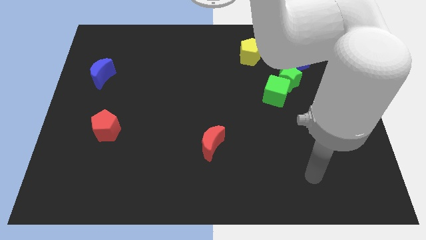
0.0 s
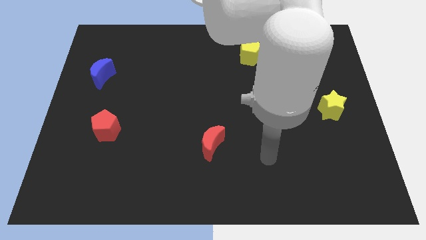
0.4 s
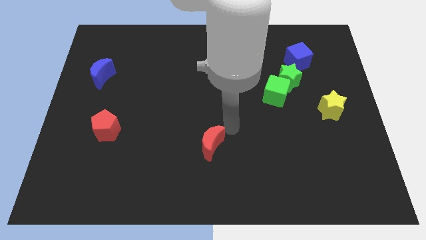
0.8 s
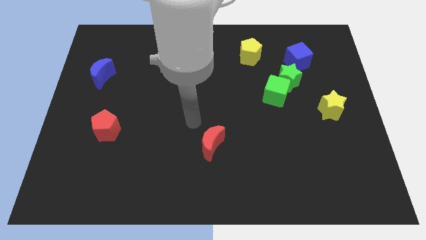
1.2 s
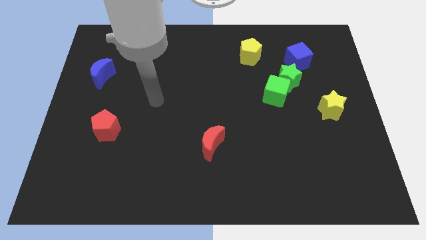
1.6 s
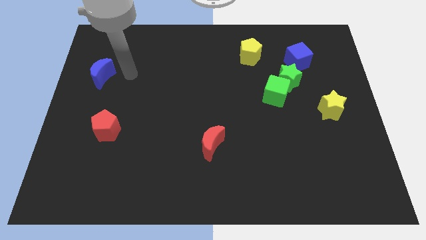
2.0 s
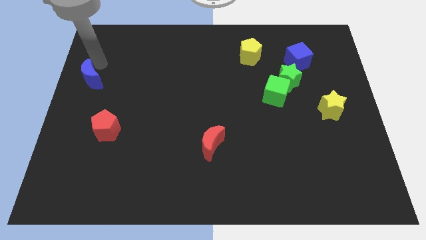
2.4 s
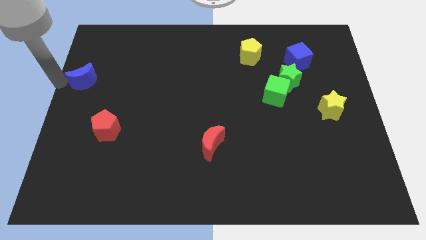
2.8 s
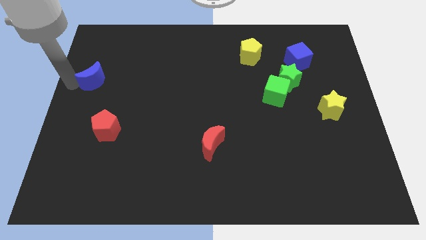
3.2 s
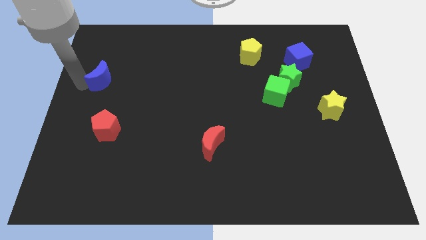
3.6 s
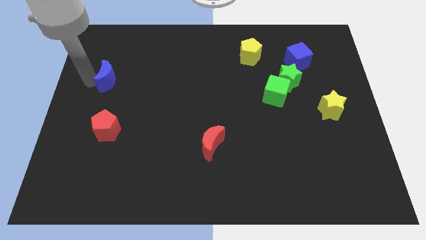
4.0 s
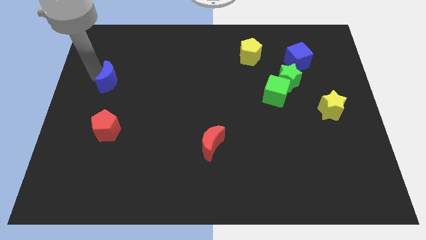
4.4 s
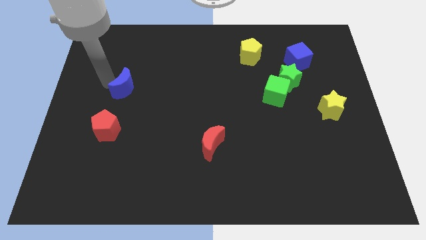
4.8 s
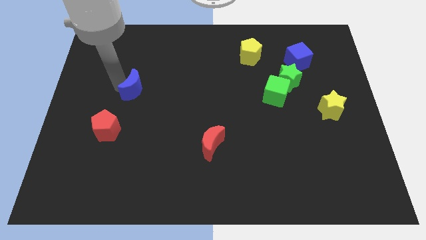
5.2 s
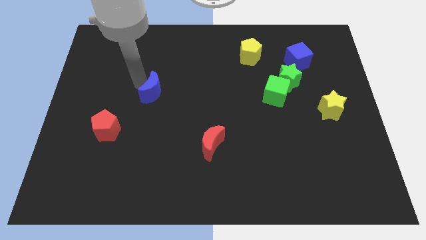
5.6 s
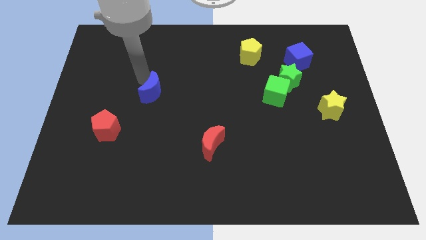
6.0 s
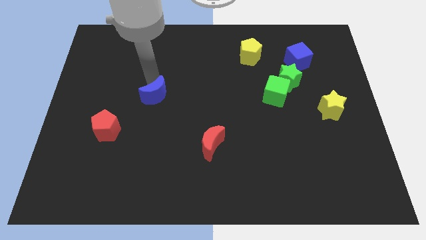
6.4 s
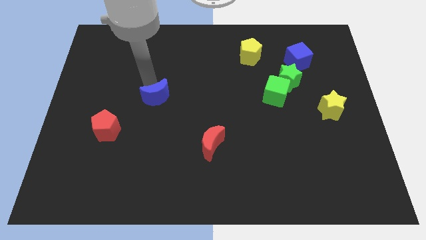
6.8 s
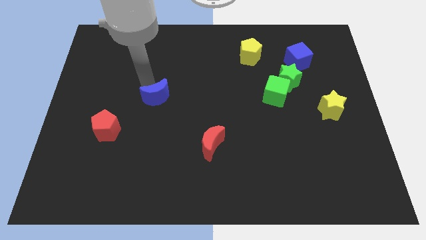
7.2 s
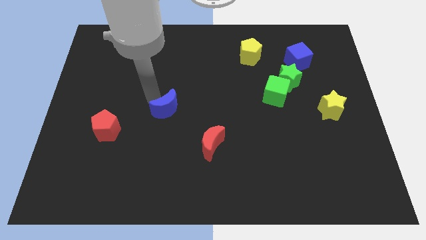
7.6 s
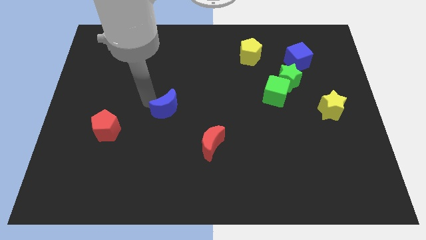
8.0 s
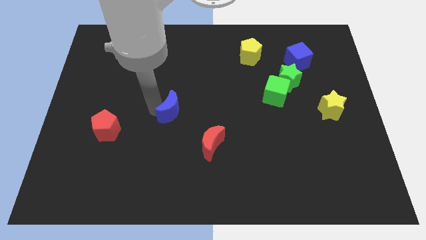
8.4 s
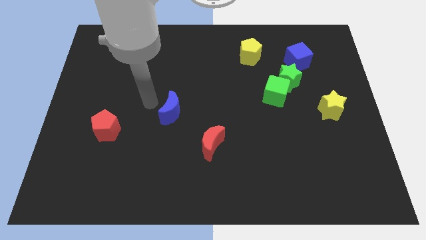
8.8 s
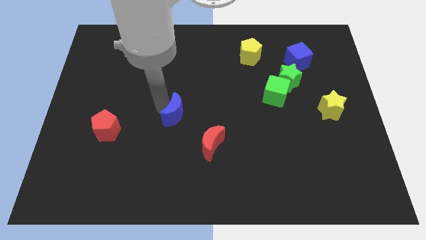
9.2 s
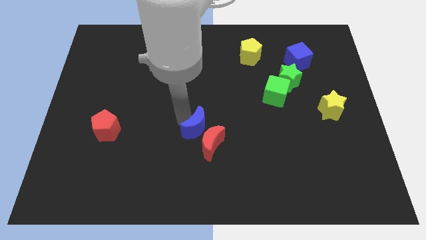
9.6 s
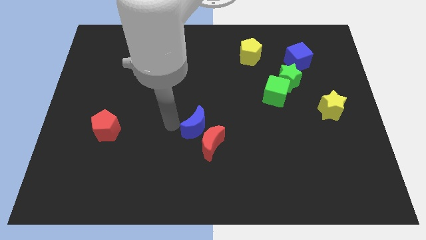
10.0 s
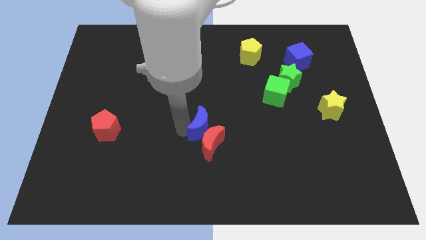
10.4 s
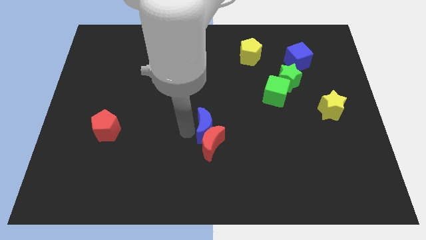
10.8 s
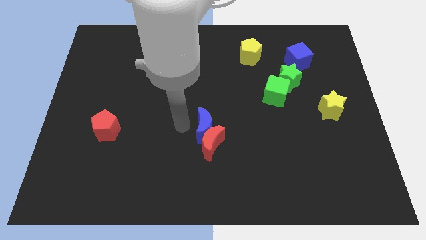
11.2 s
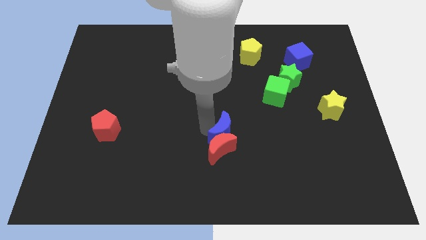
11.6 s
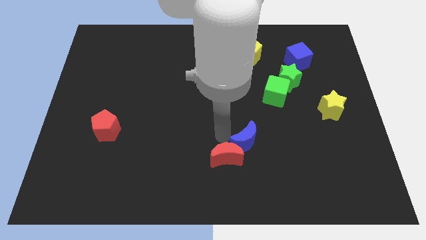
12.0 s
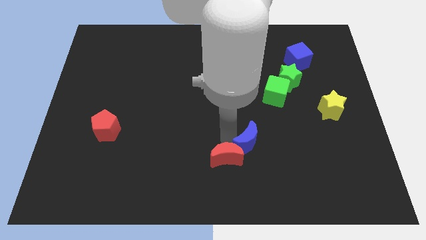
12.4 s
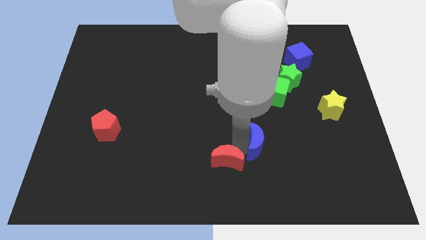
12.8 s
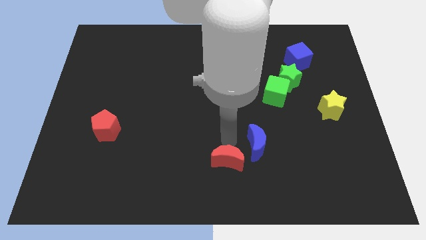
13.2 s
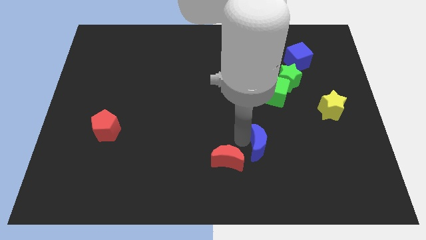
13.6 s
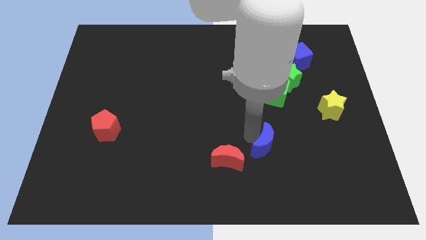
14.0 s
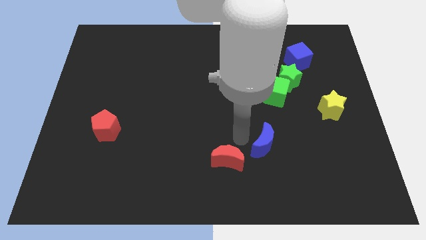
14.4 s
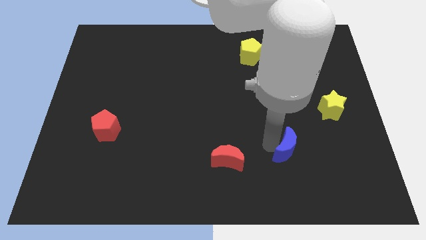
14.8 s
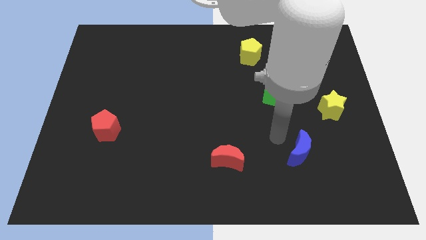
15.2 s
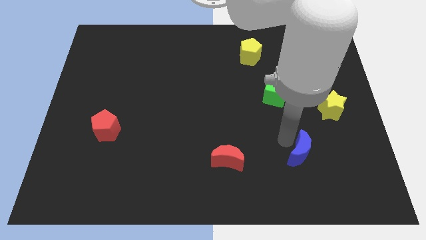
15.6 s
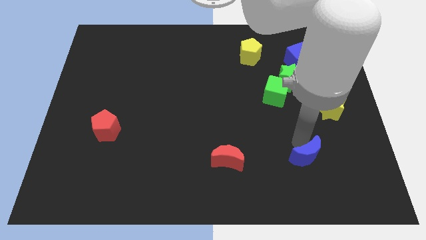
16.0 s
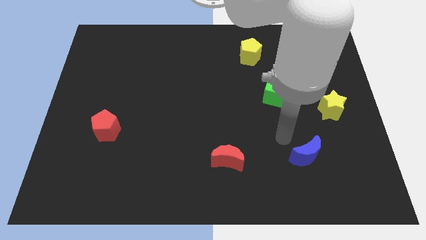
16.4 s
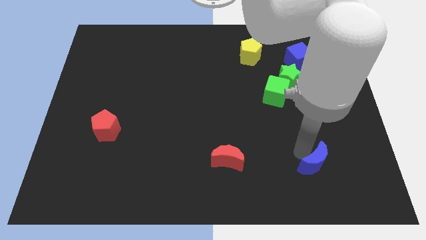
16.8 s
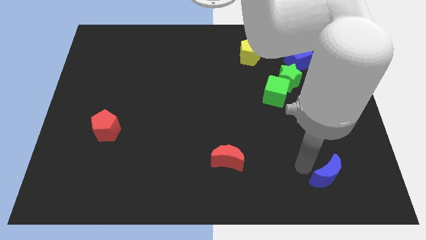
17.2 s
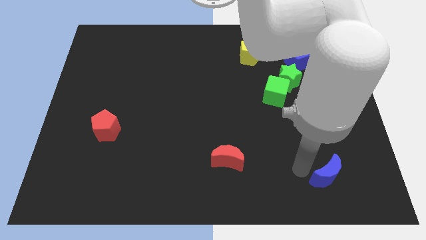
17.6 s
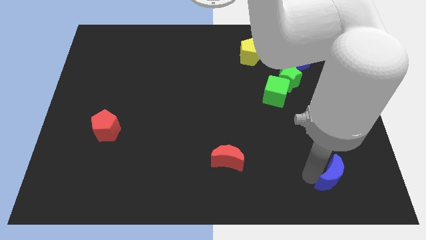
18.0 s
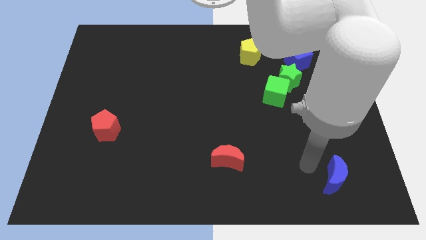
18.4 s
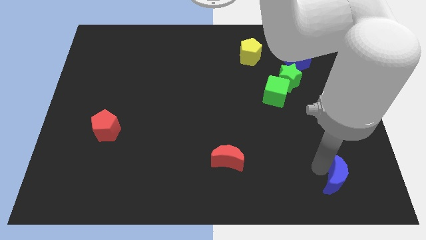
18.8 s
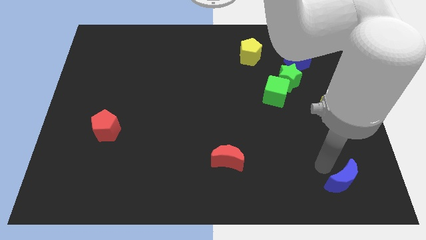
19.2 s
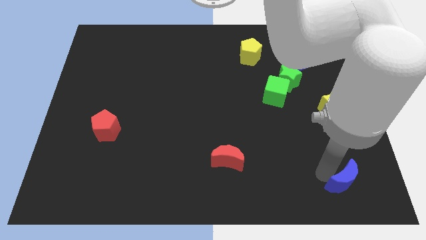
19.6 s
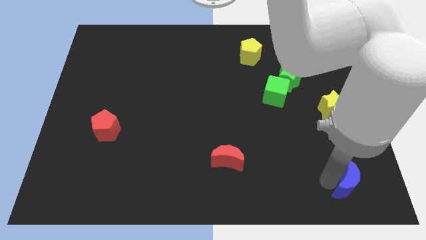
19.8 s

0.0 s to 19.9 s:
move the blue moon to the bottom right

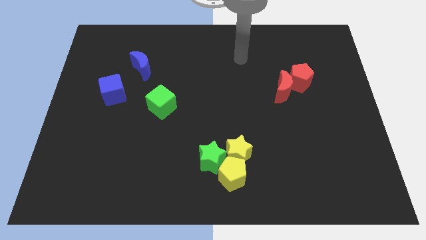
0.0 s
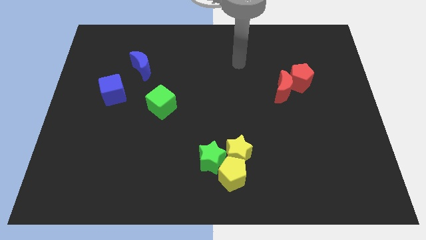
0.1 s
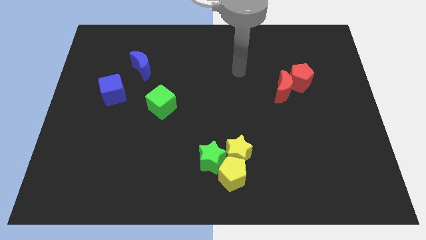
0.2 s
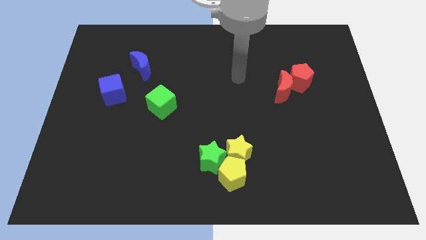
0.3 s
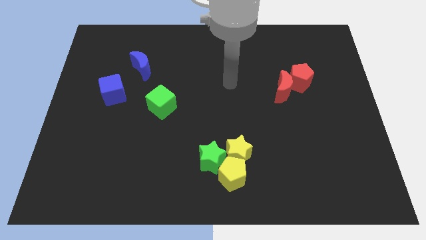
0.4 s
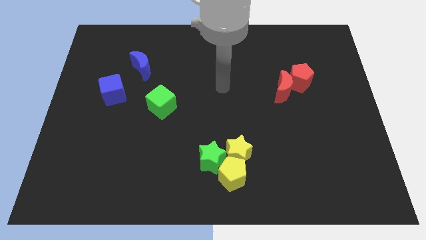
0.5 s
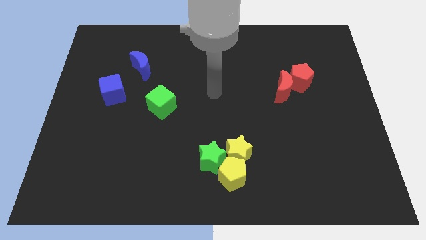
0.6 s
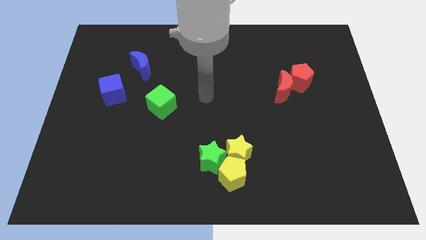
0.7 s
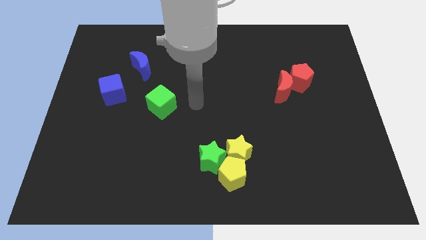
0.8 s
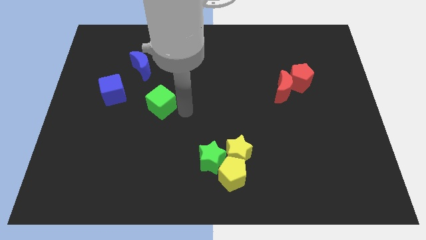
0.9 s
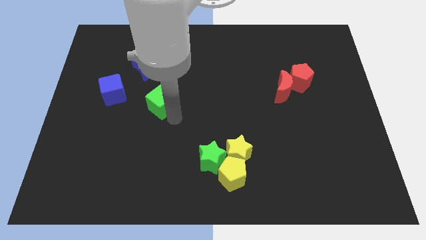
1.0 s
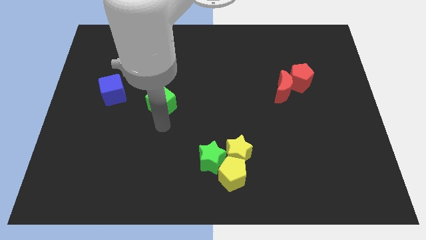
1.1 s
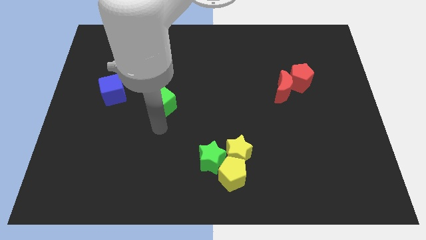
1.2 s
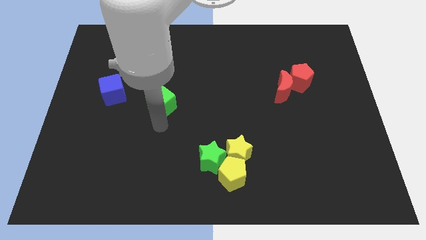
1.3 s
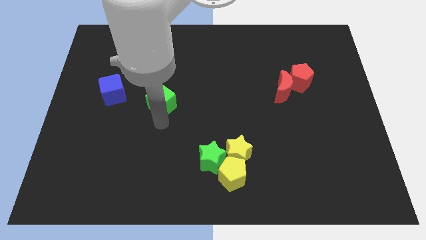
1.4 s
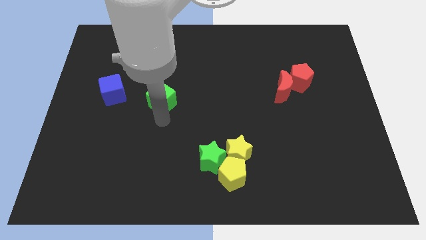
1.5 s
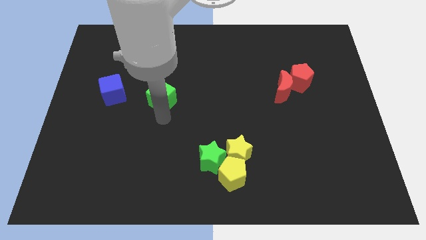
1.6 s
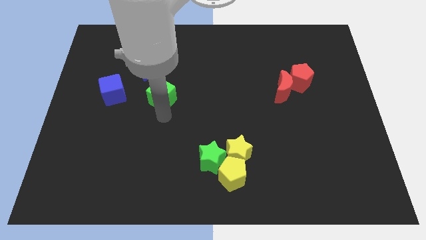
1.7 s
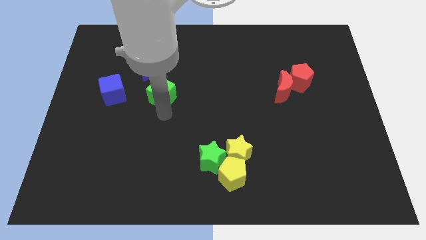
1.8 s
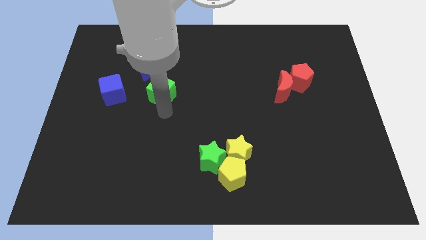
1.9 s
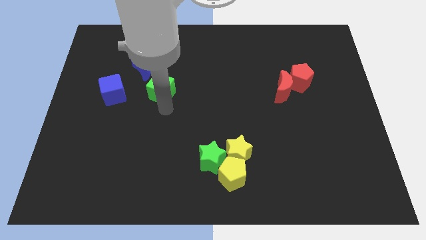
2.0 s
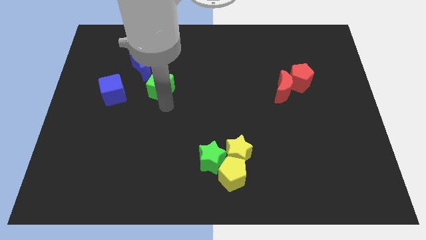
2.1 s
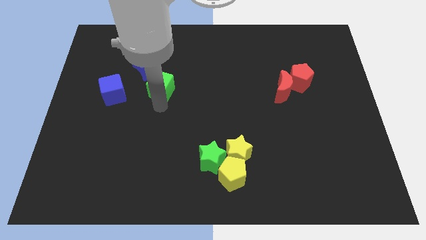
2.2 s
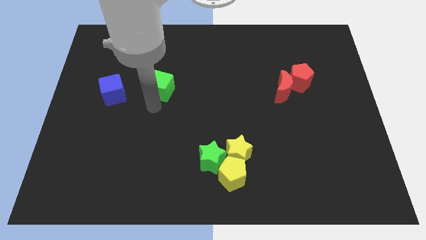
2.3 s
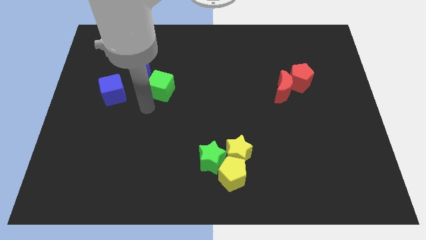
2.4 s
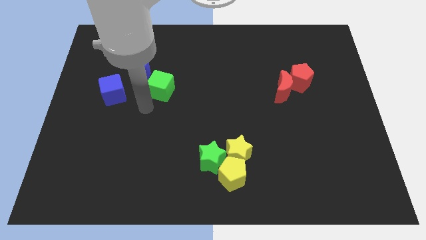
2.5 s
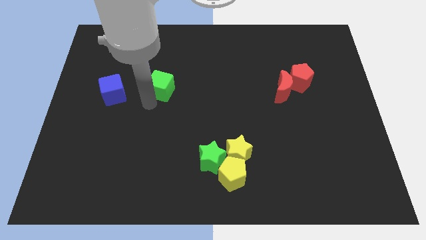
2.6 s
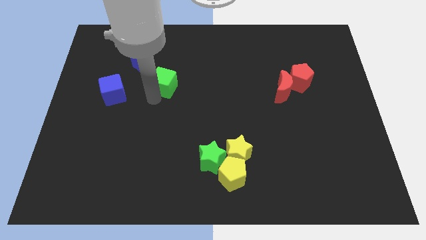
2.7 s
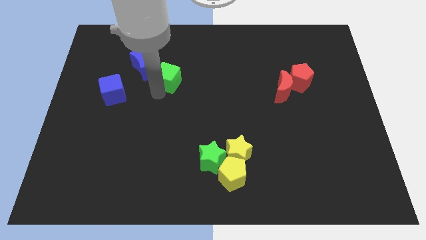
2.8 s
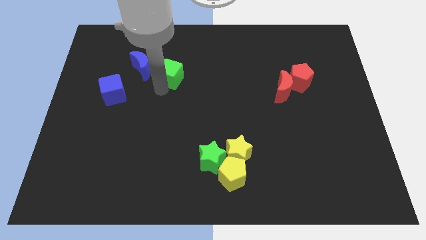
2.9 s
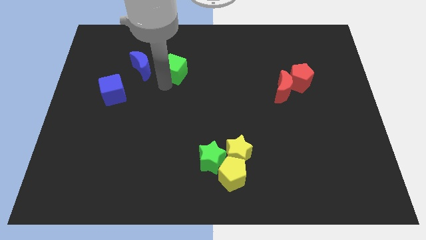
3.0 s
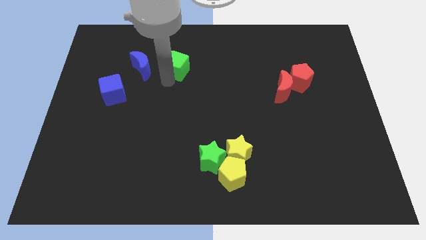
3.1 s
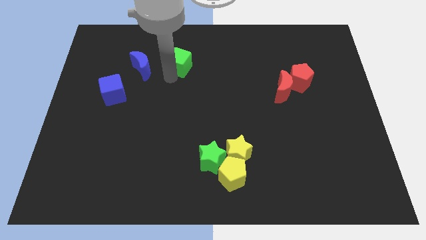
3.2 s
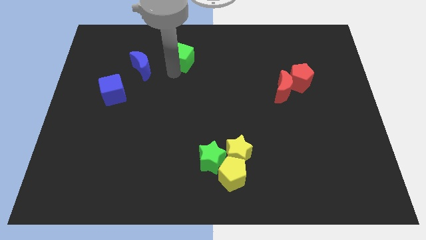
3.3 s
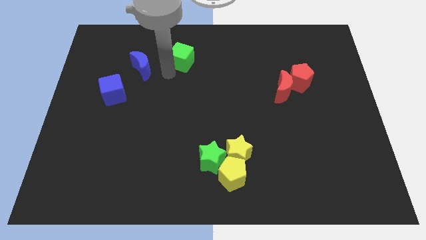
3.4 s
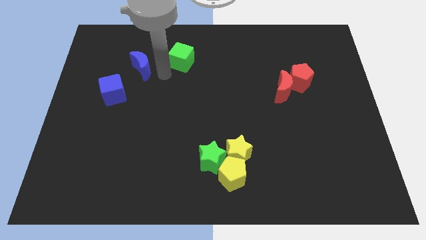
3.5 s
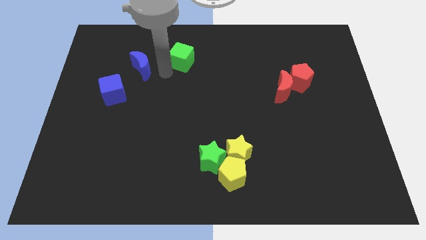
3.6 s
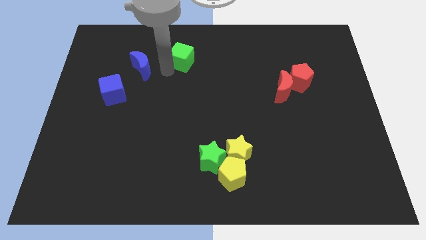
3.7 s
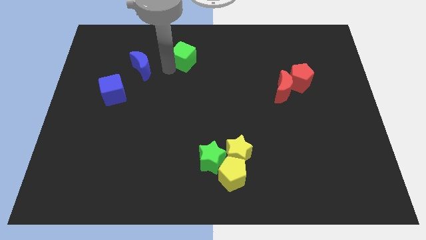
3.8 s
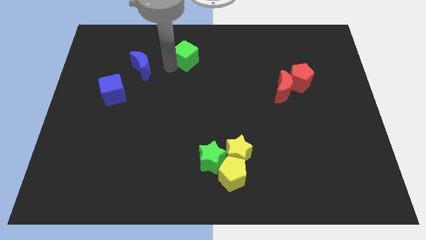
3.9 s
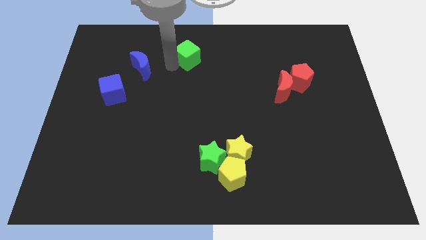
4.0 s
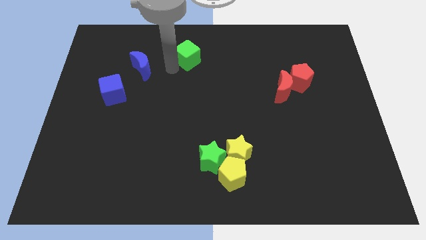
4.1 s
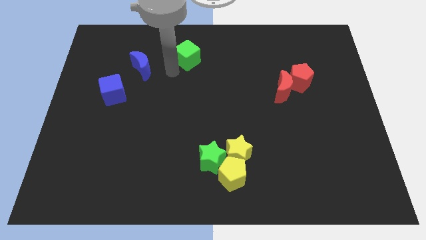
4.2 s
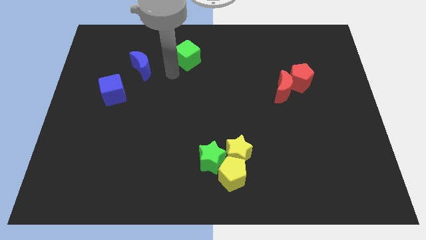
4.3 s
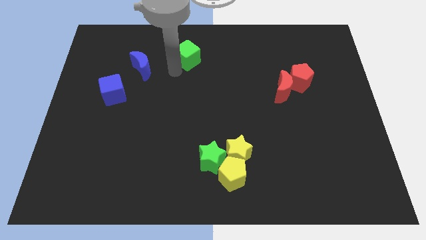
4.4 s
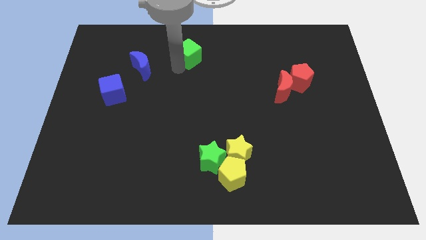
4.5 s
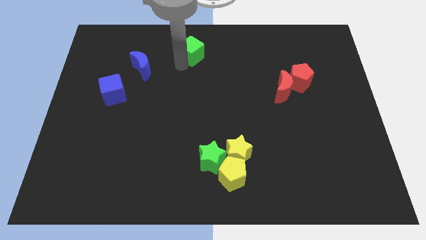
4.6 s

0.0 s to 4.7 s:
put the green cube to the towards your base
